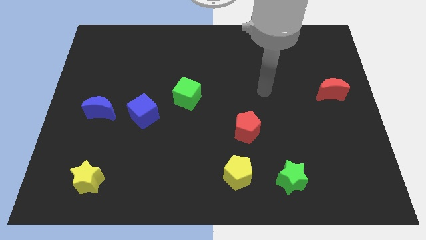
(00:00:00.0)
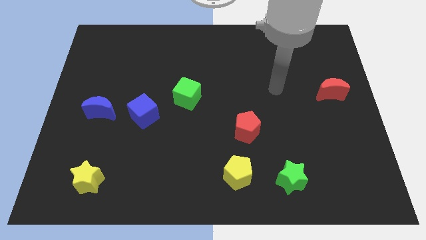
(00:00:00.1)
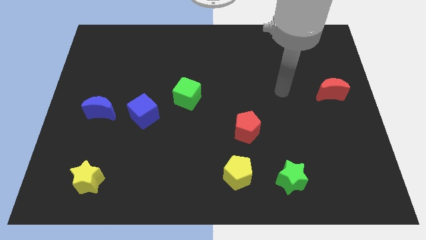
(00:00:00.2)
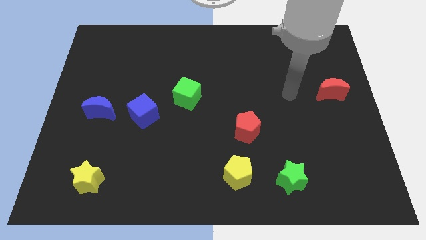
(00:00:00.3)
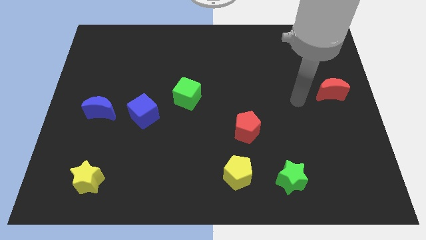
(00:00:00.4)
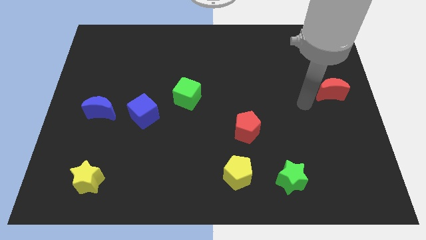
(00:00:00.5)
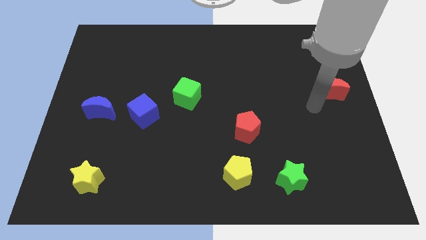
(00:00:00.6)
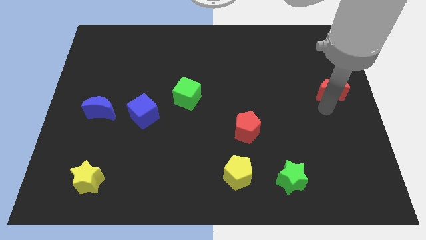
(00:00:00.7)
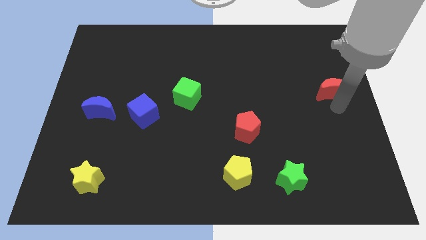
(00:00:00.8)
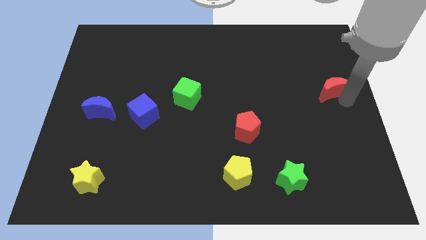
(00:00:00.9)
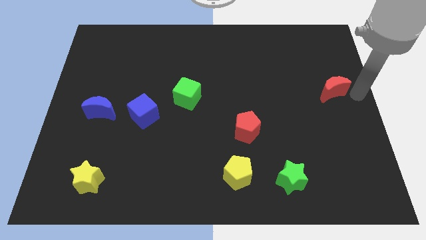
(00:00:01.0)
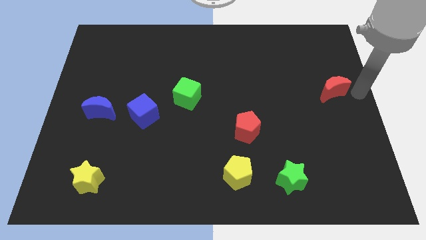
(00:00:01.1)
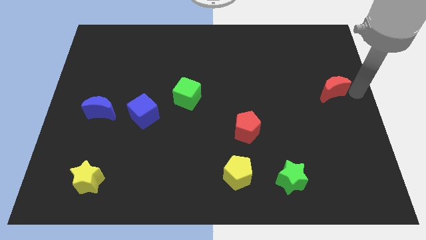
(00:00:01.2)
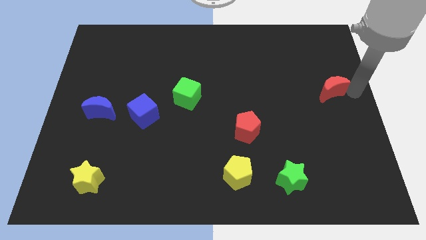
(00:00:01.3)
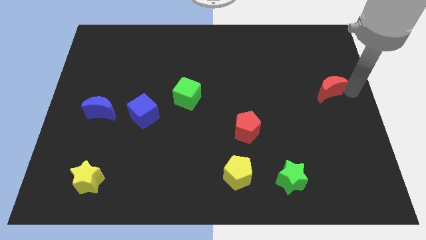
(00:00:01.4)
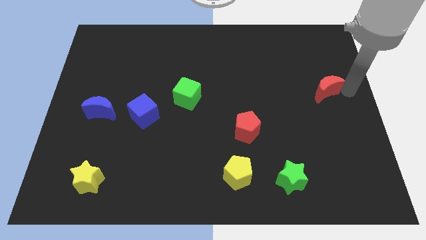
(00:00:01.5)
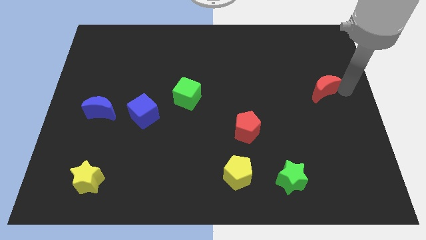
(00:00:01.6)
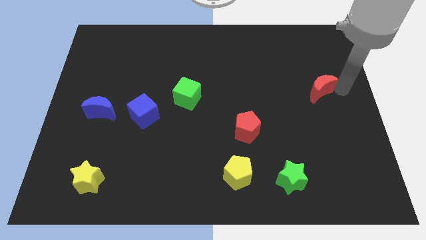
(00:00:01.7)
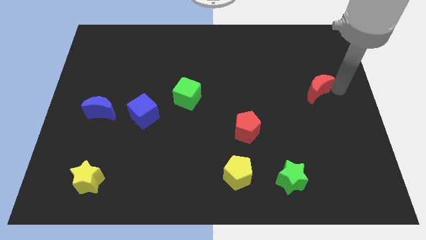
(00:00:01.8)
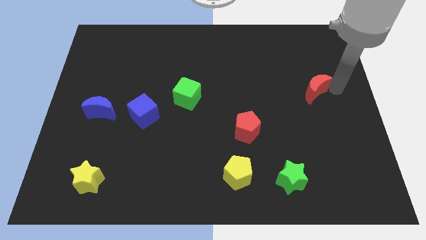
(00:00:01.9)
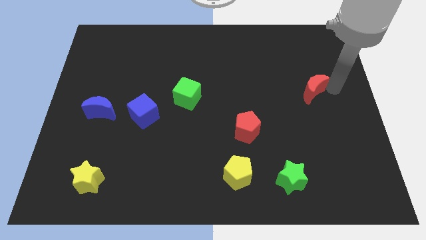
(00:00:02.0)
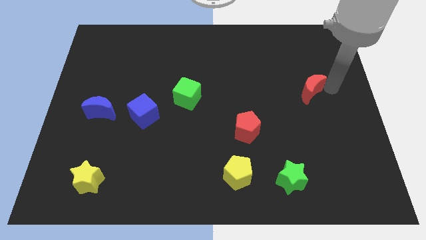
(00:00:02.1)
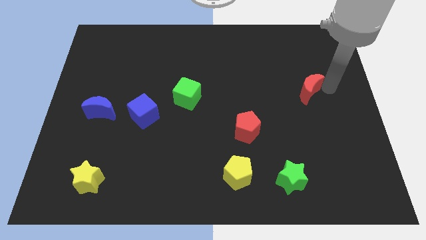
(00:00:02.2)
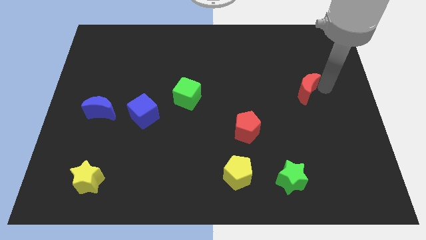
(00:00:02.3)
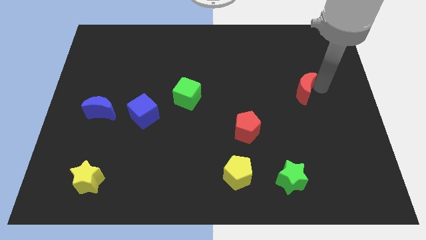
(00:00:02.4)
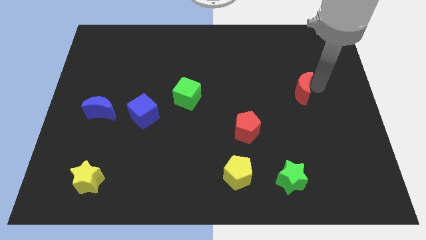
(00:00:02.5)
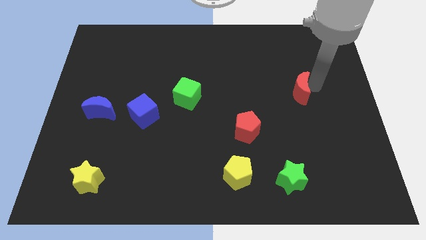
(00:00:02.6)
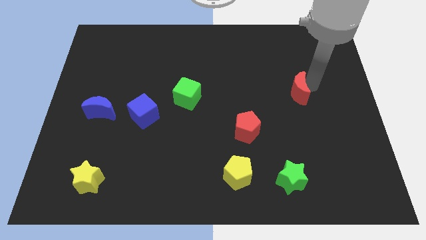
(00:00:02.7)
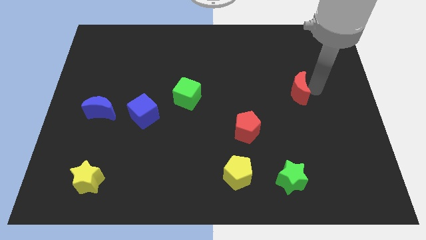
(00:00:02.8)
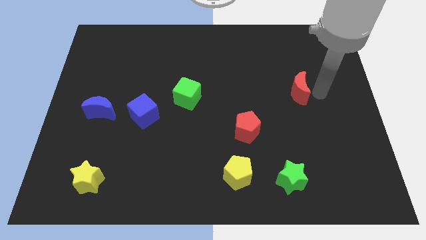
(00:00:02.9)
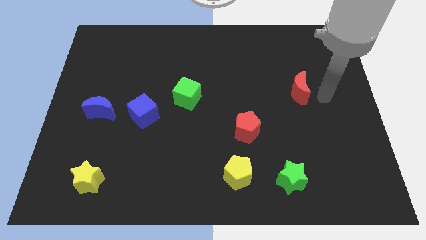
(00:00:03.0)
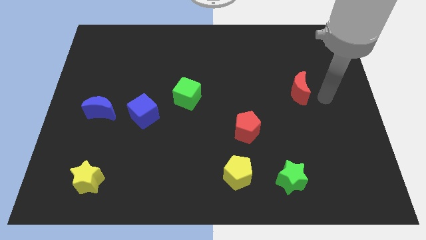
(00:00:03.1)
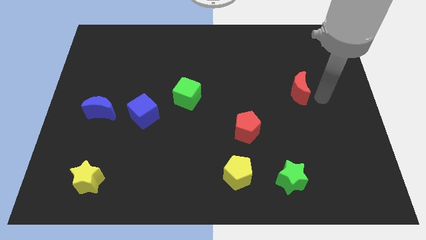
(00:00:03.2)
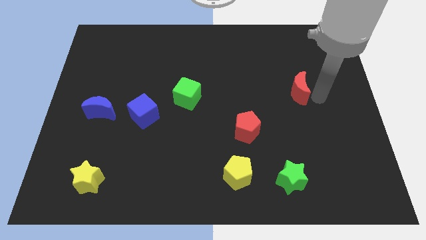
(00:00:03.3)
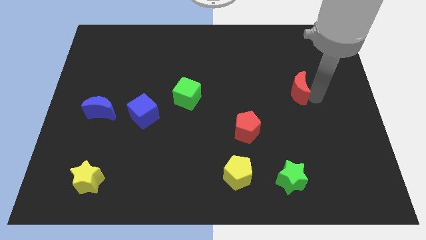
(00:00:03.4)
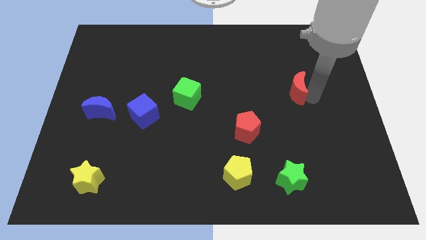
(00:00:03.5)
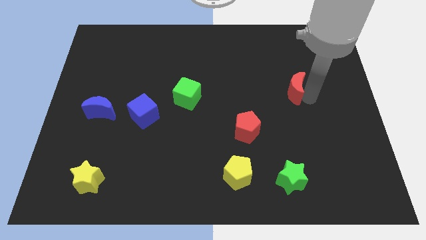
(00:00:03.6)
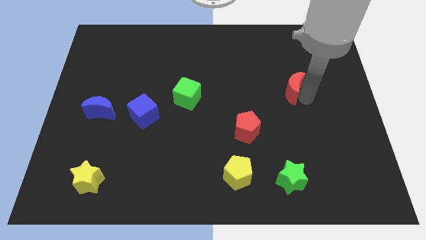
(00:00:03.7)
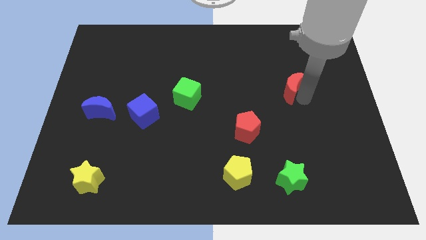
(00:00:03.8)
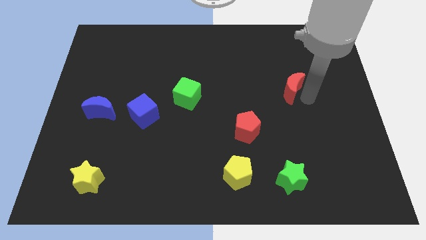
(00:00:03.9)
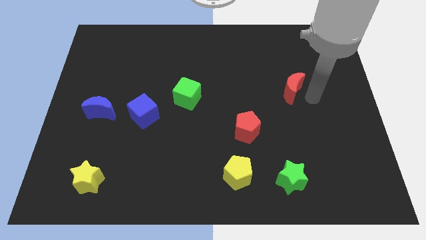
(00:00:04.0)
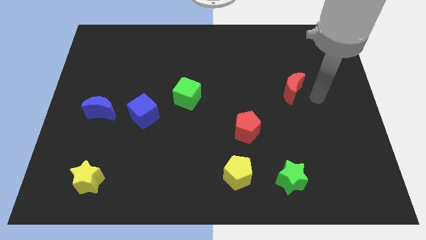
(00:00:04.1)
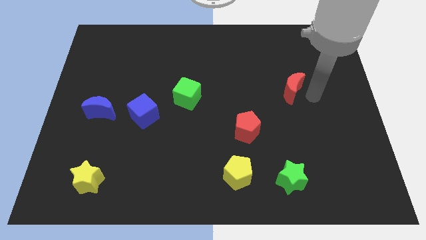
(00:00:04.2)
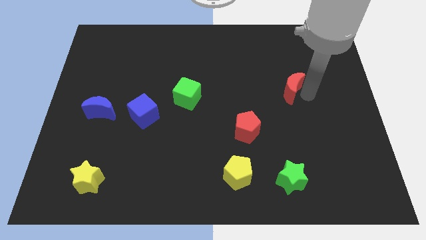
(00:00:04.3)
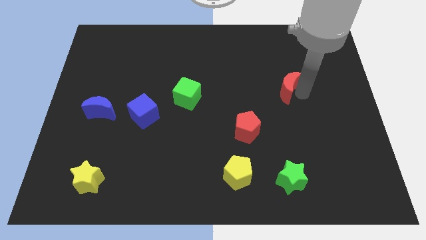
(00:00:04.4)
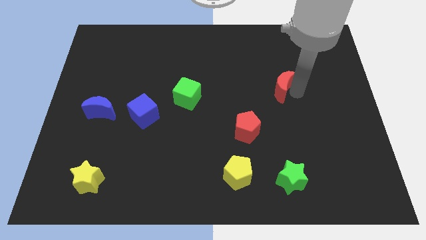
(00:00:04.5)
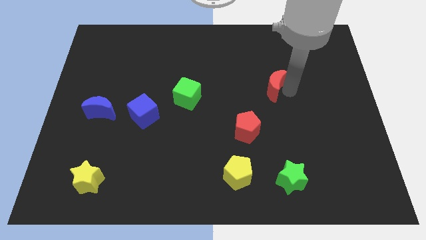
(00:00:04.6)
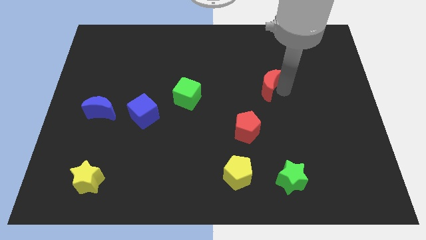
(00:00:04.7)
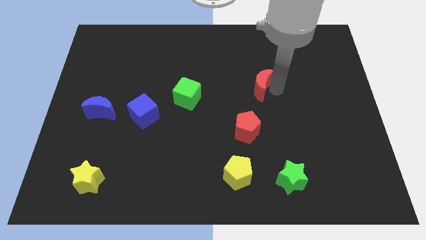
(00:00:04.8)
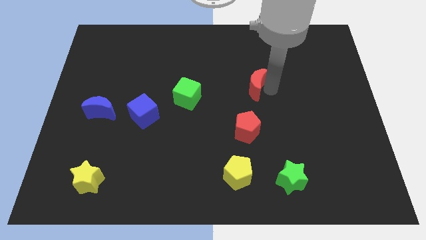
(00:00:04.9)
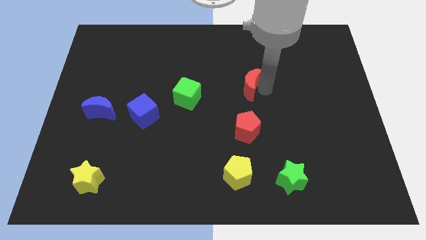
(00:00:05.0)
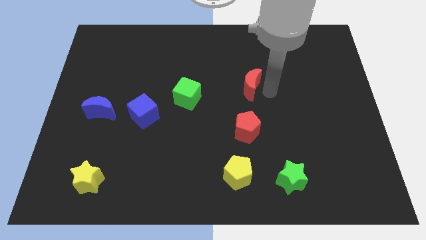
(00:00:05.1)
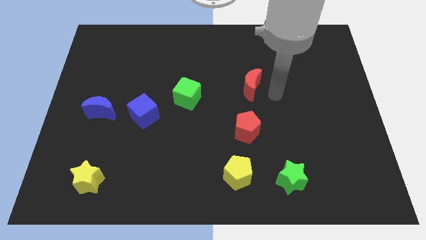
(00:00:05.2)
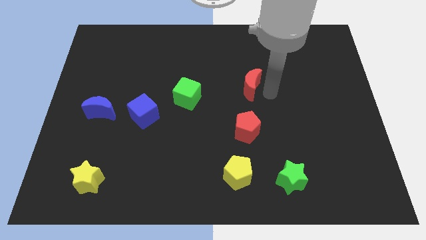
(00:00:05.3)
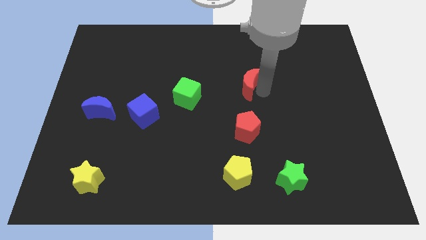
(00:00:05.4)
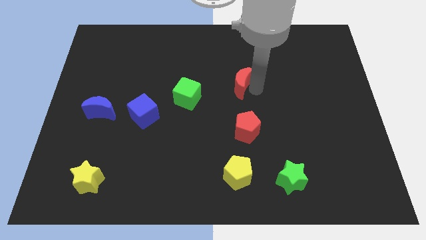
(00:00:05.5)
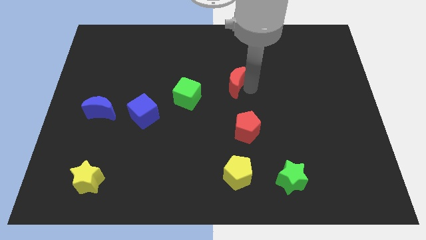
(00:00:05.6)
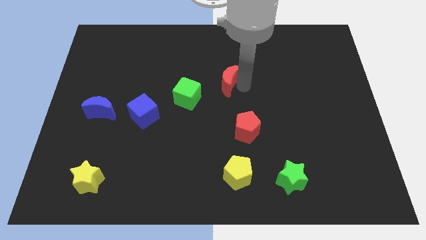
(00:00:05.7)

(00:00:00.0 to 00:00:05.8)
put the red moon to the top right of the green cube

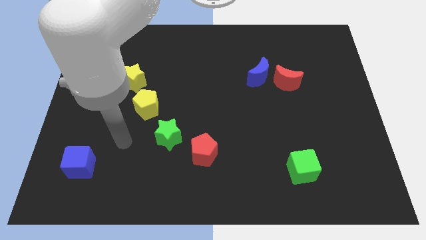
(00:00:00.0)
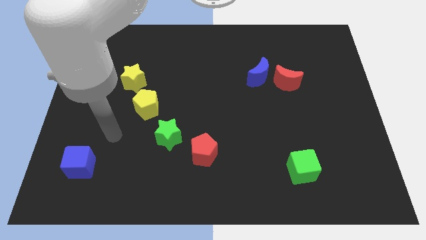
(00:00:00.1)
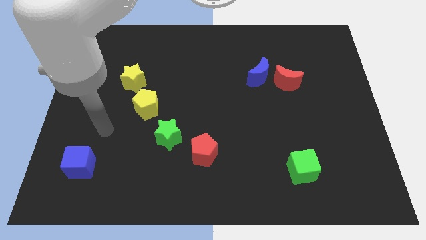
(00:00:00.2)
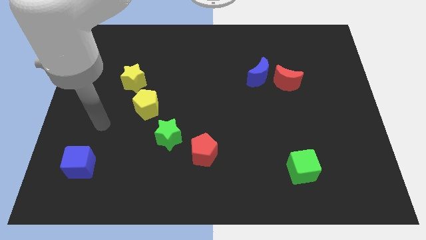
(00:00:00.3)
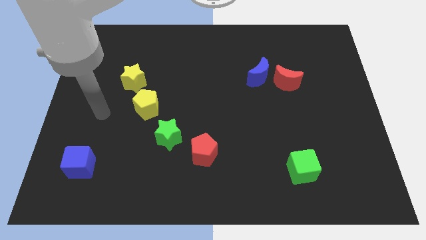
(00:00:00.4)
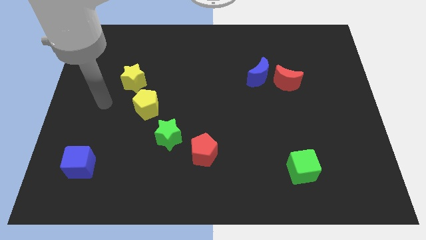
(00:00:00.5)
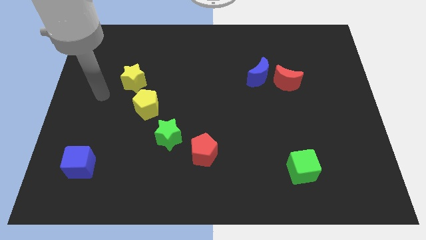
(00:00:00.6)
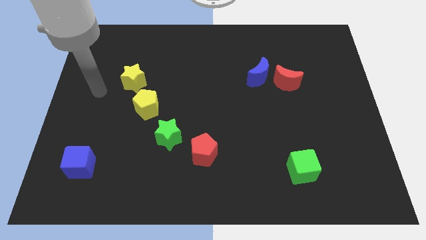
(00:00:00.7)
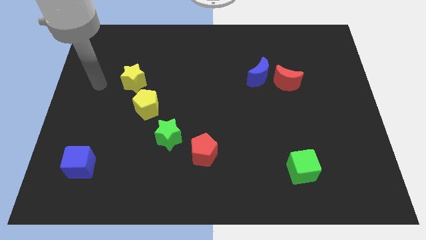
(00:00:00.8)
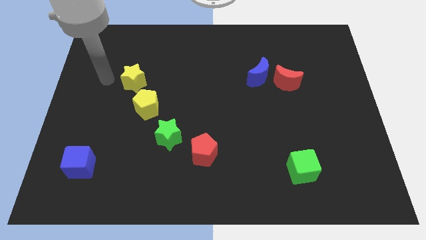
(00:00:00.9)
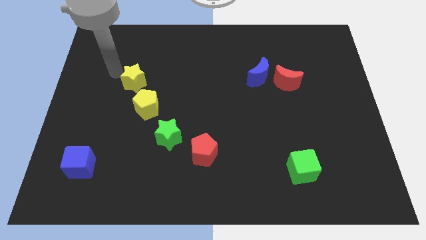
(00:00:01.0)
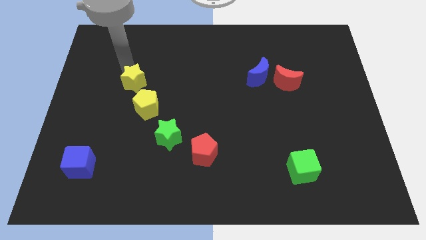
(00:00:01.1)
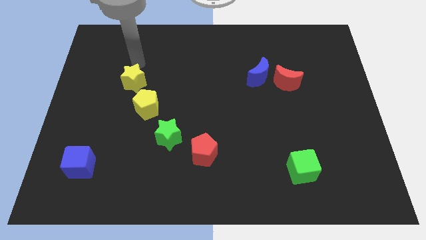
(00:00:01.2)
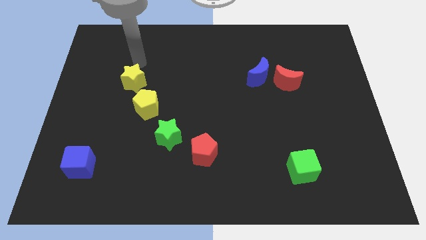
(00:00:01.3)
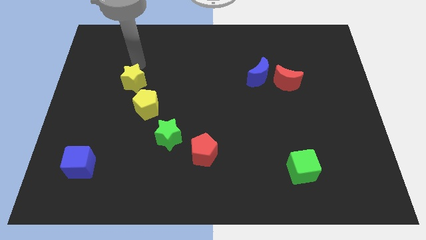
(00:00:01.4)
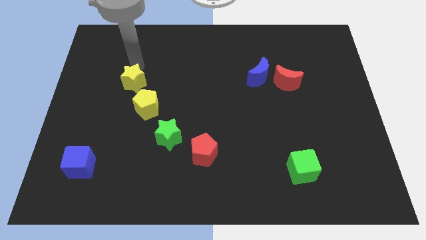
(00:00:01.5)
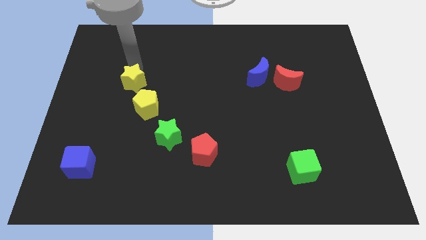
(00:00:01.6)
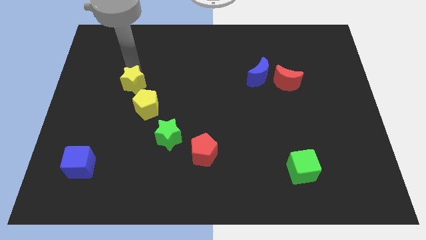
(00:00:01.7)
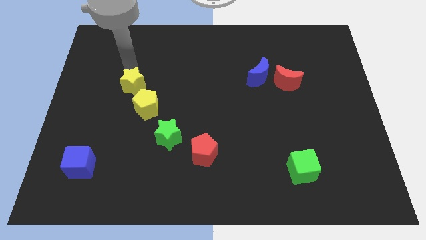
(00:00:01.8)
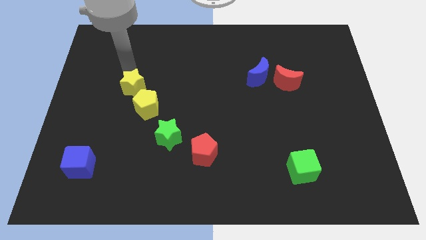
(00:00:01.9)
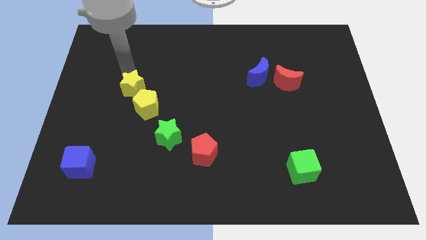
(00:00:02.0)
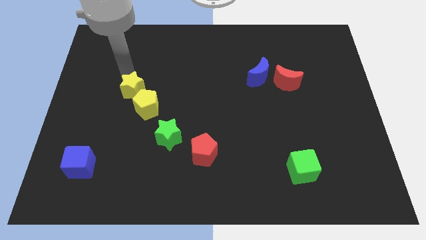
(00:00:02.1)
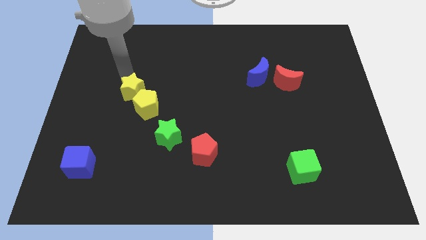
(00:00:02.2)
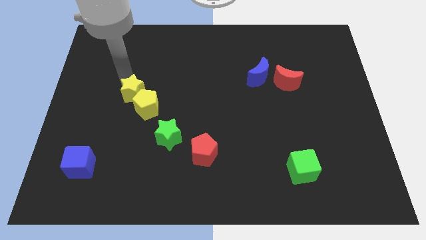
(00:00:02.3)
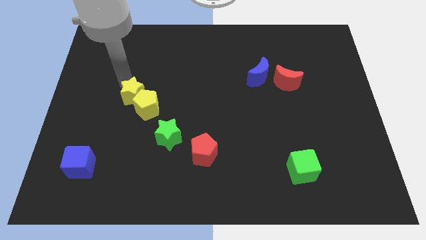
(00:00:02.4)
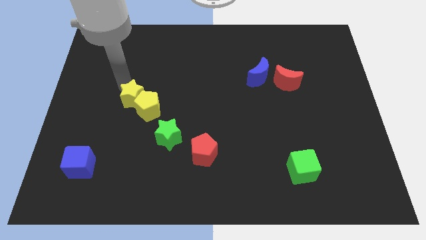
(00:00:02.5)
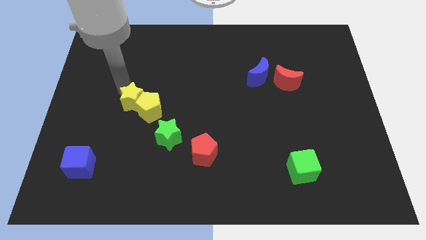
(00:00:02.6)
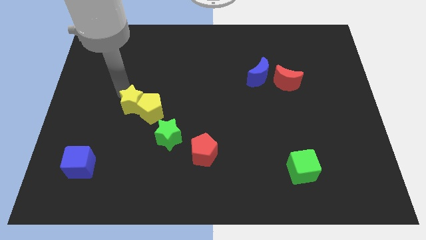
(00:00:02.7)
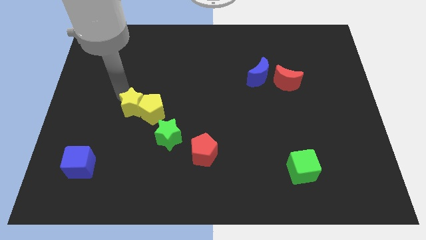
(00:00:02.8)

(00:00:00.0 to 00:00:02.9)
put the yellow star diagonally down and to the left of the yellow pentagon
